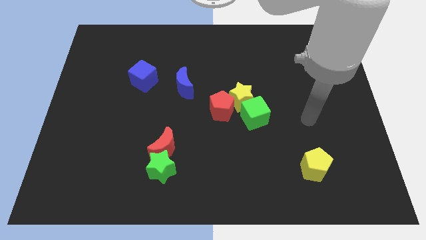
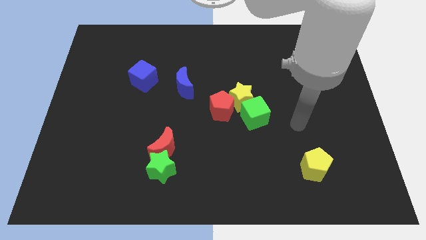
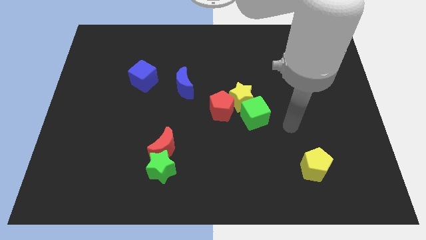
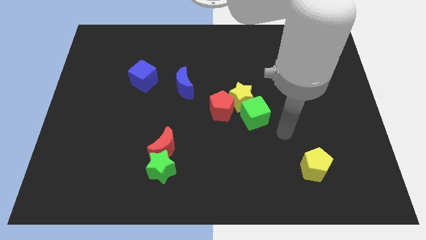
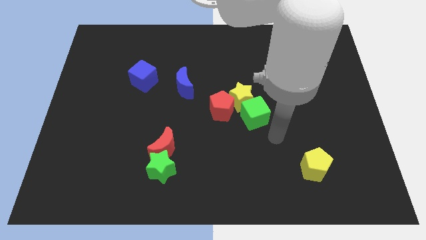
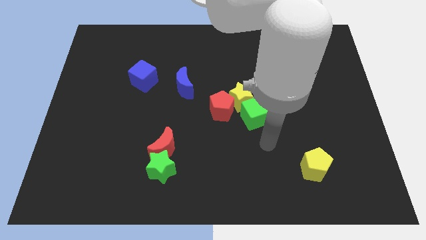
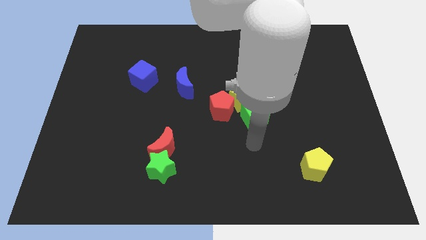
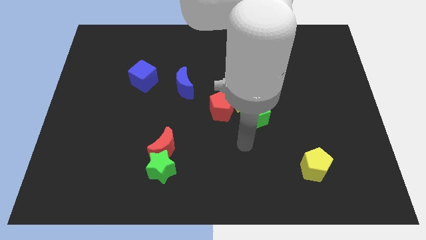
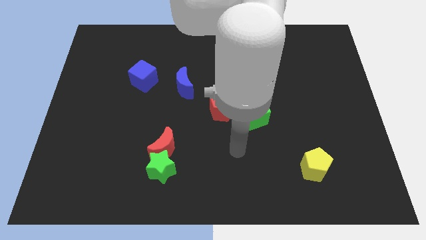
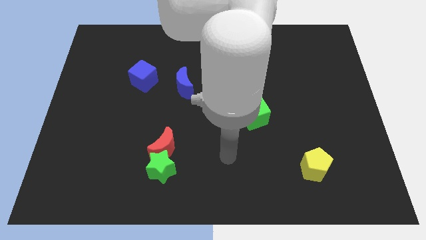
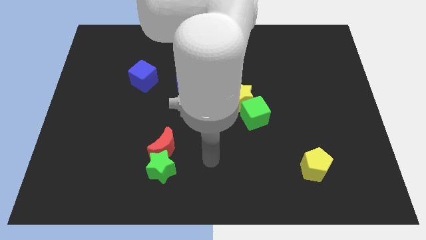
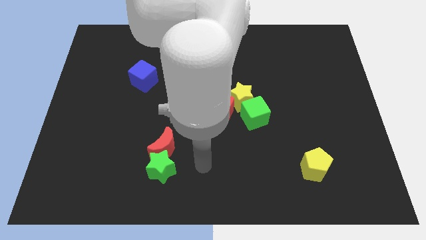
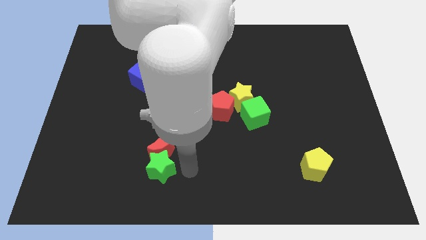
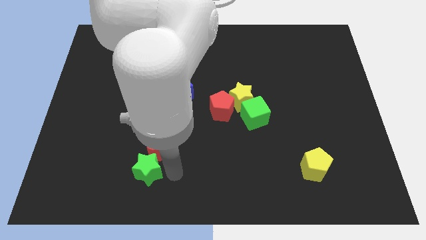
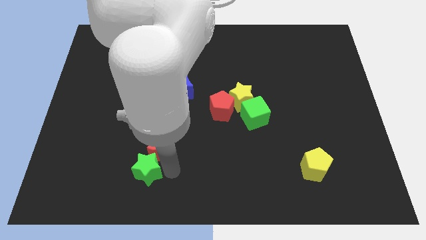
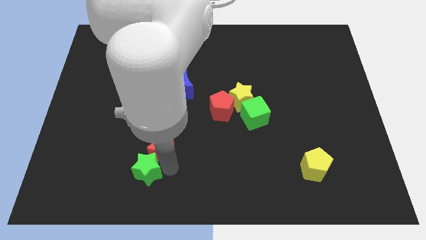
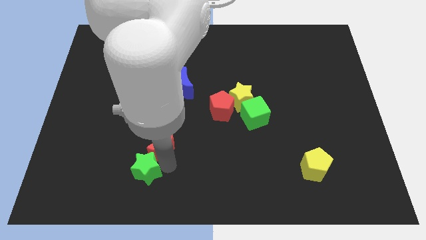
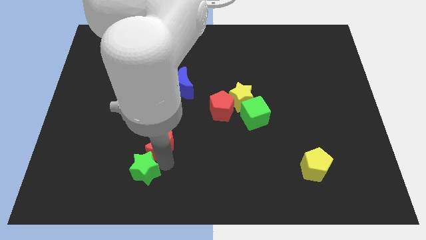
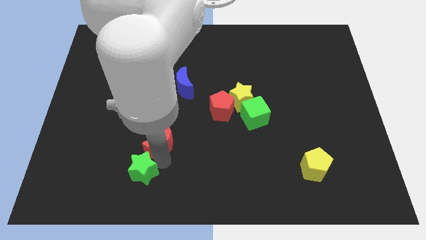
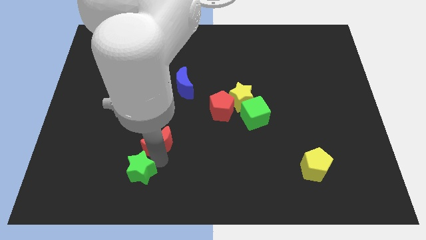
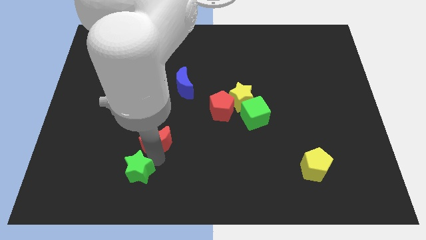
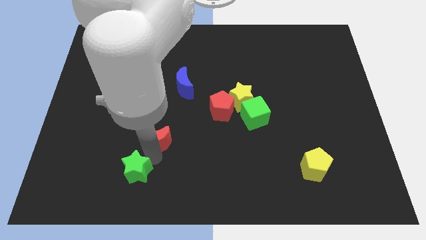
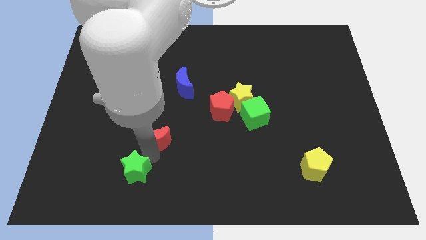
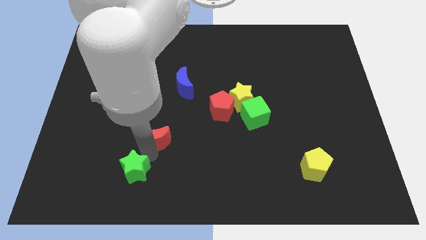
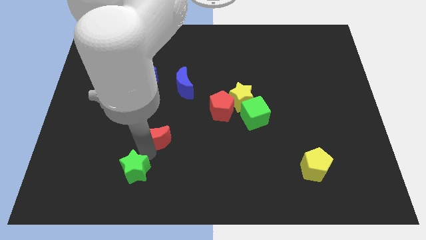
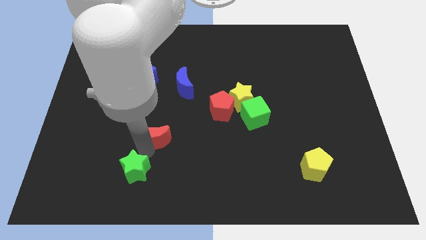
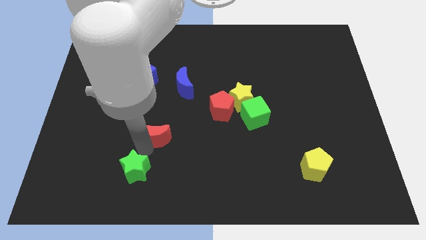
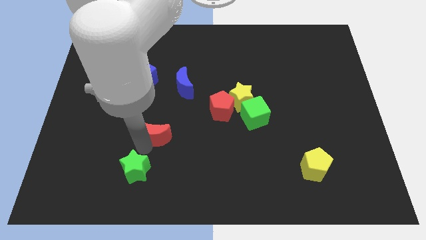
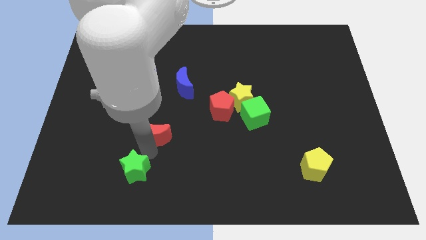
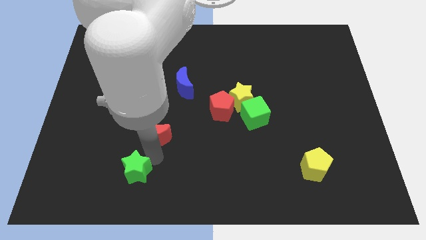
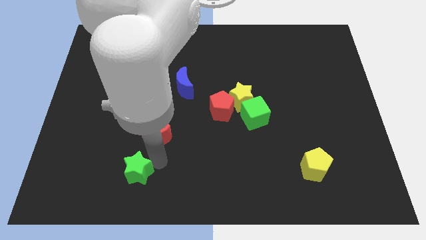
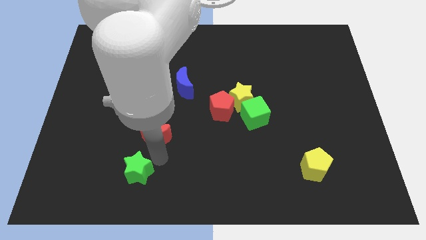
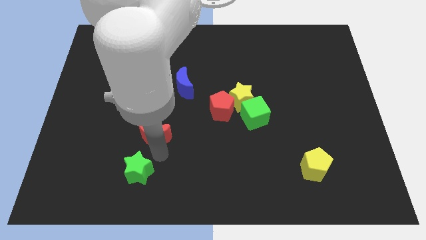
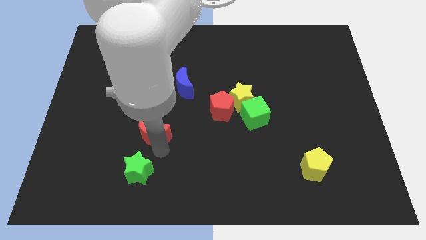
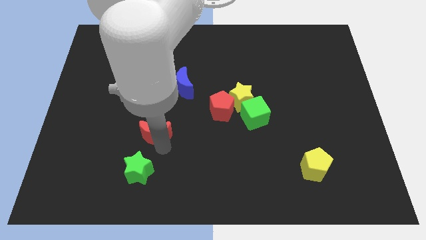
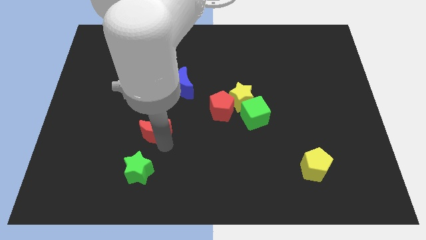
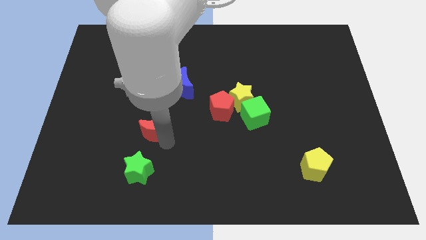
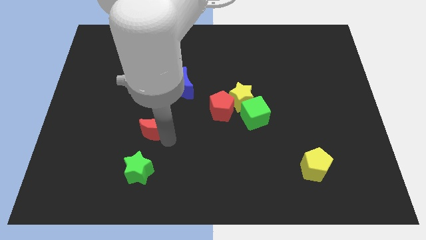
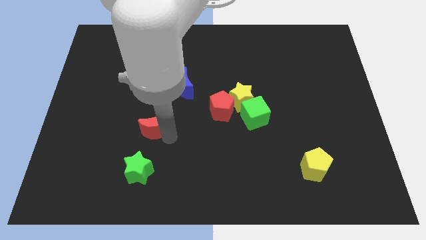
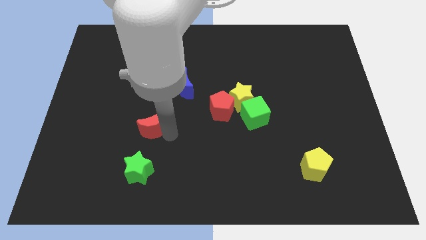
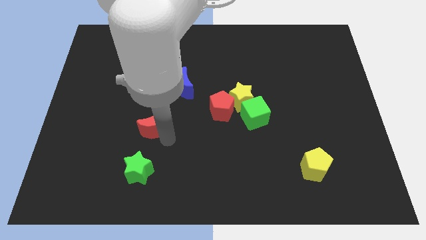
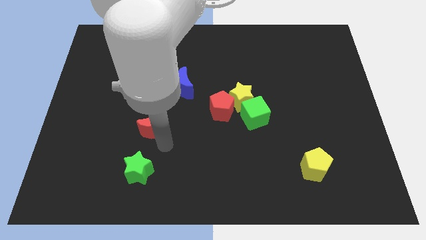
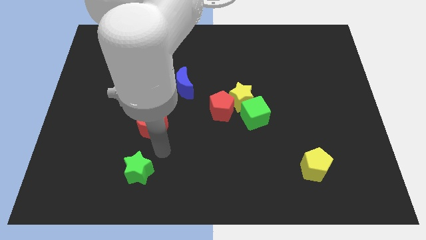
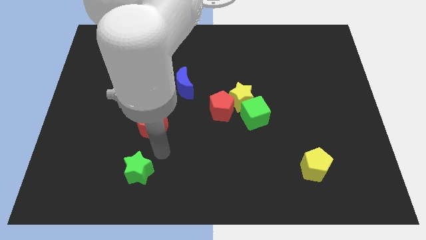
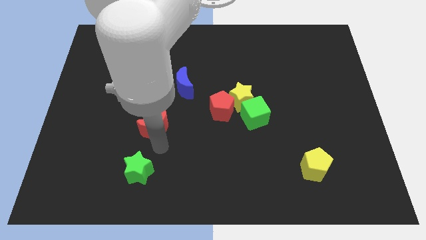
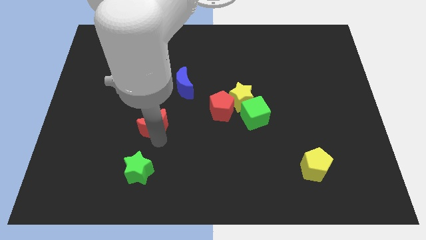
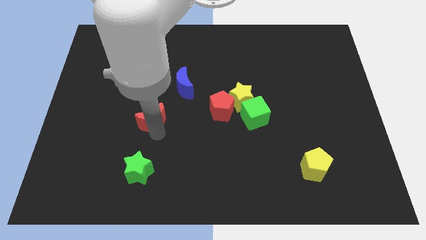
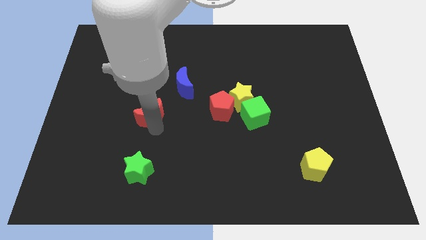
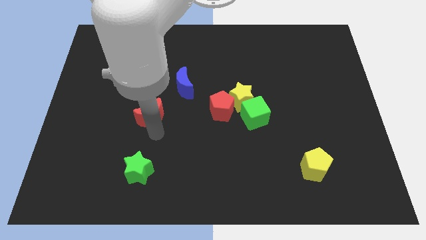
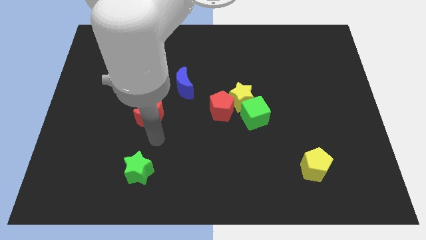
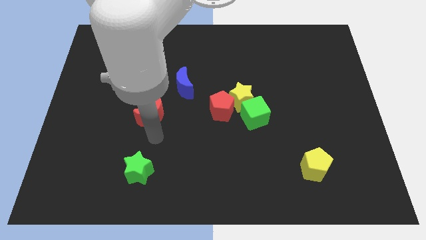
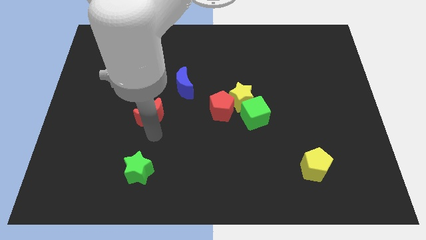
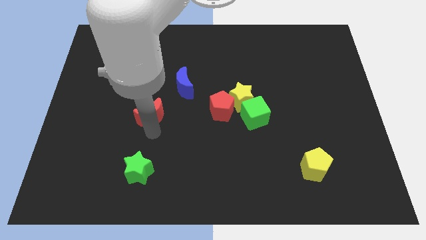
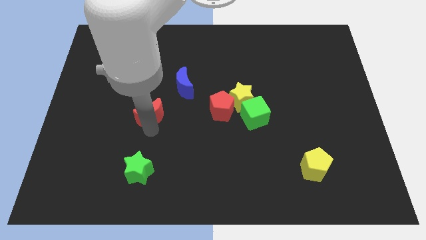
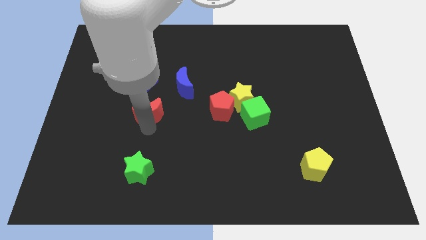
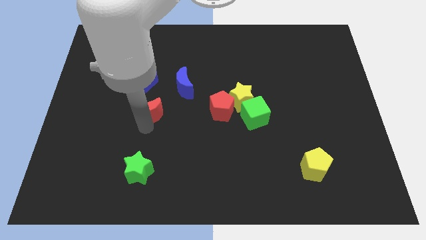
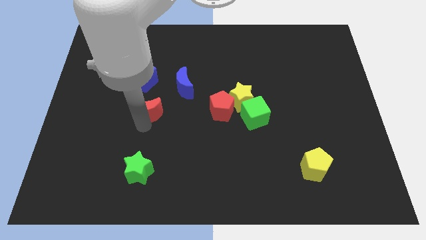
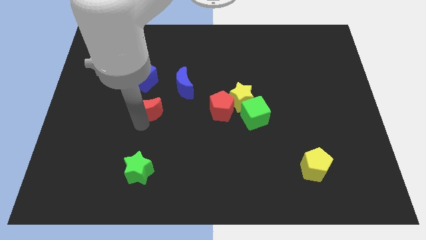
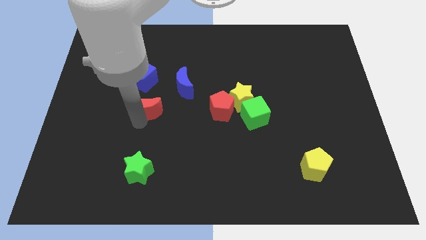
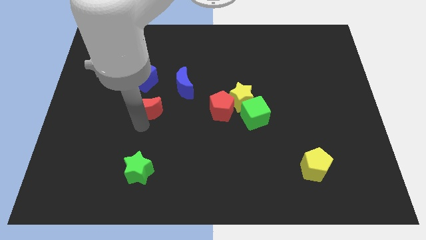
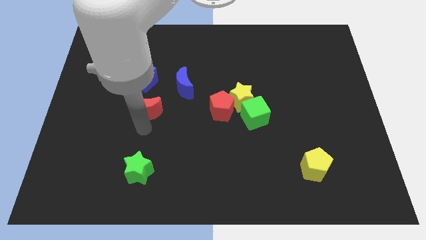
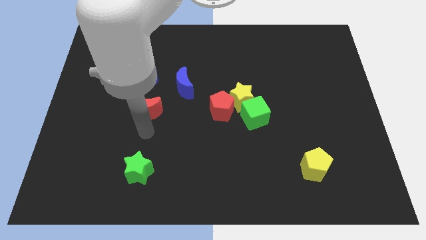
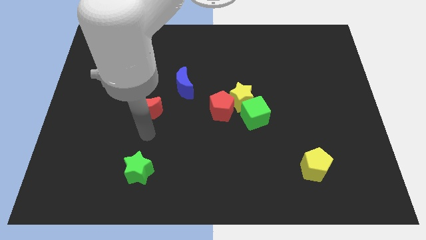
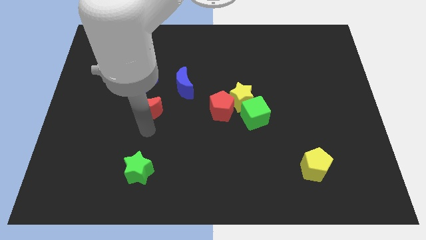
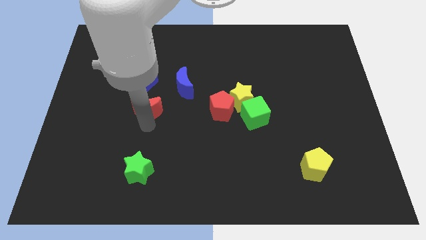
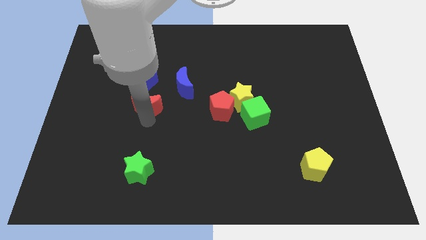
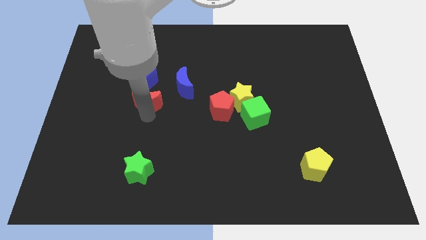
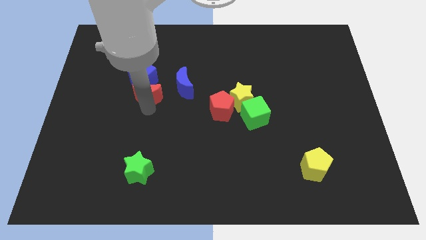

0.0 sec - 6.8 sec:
move the red moon close to the blue cube

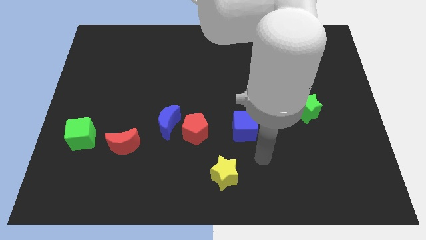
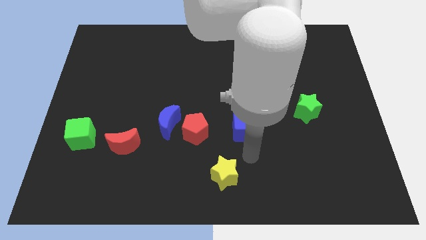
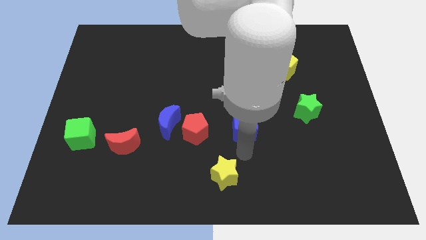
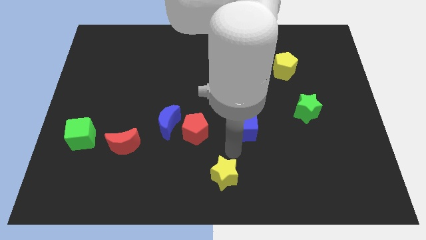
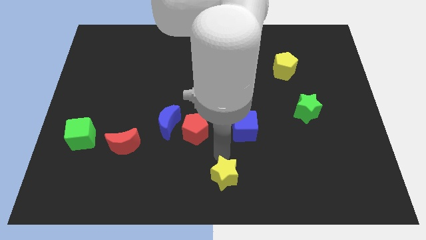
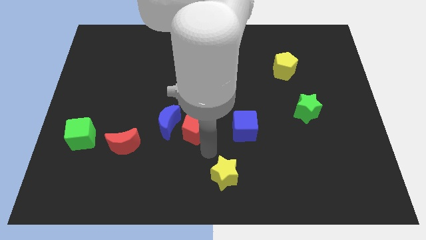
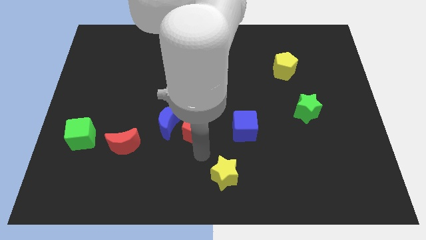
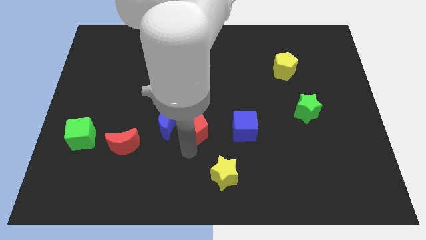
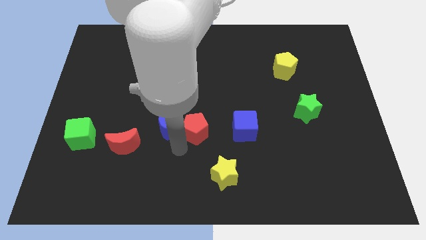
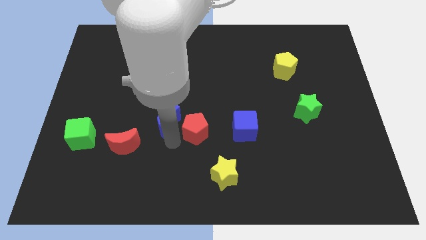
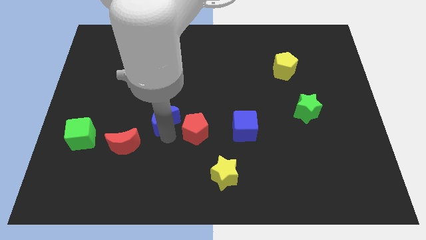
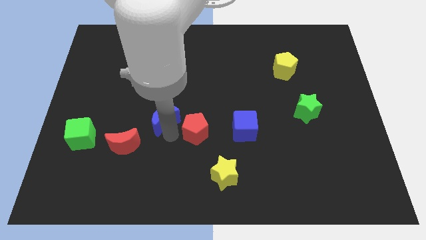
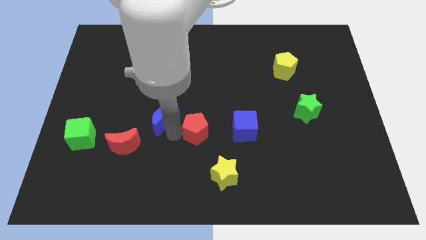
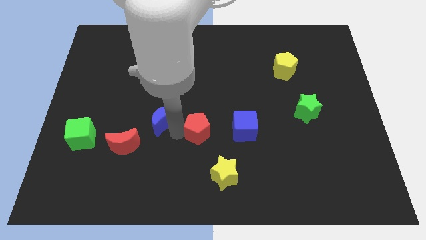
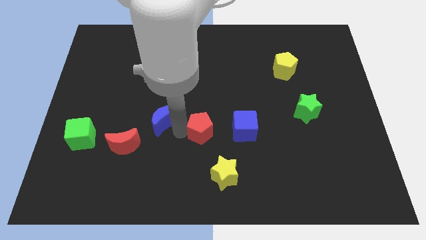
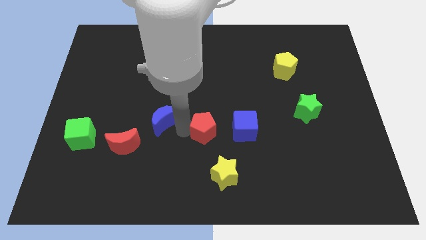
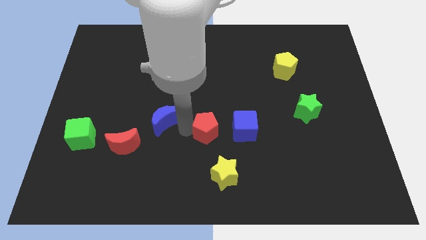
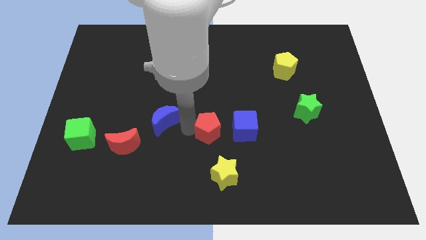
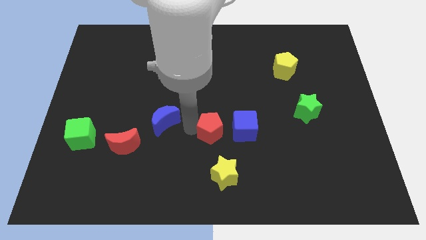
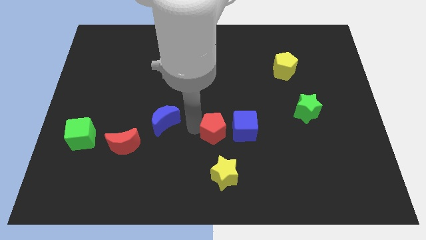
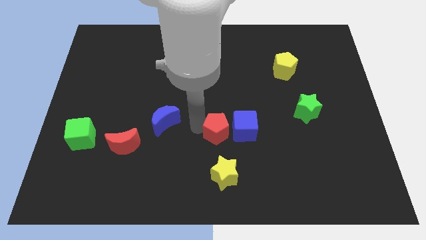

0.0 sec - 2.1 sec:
slide the red pentagon close to the blue cube
